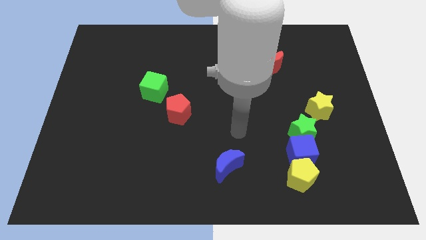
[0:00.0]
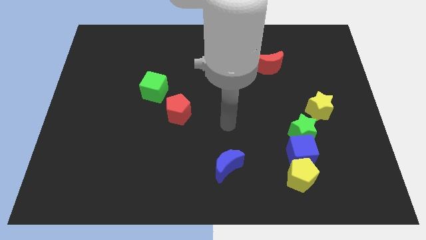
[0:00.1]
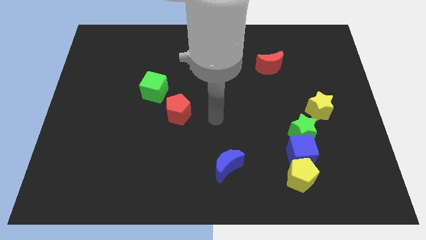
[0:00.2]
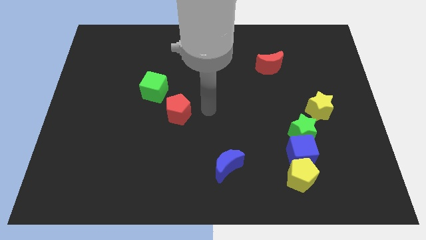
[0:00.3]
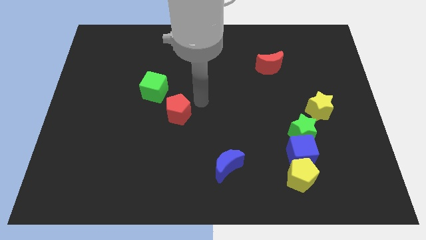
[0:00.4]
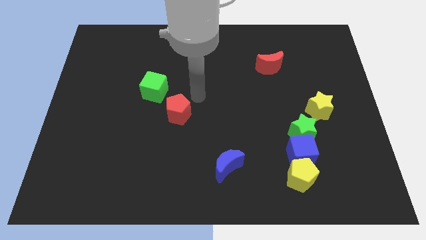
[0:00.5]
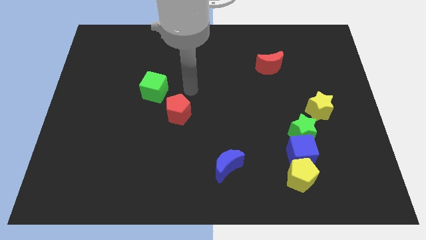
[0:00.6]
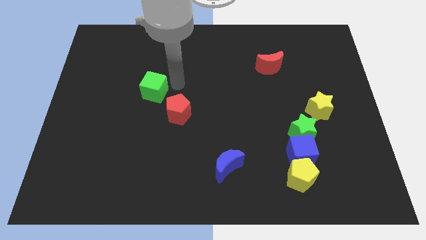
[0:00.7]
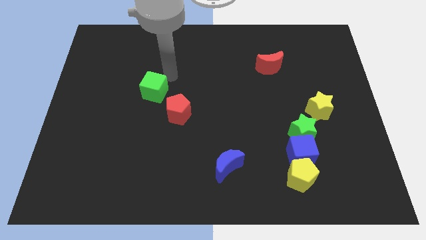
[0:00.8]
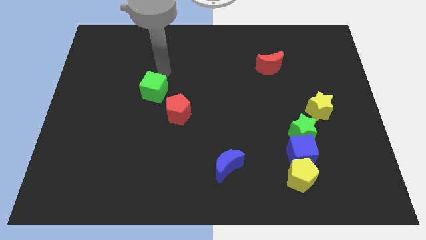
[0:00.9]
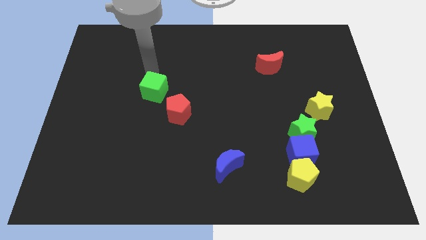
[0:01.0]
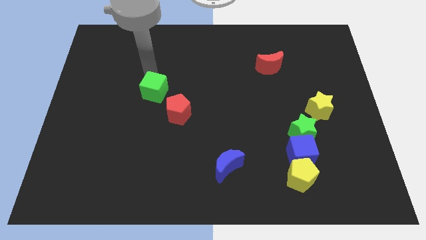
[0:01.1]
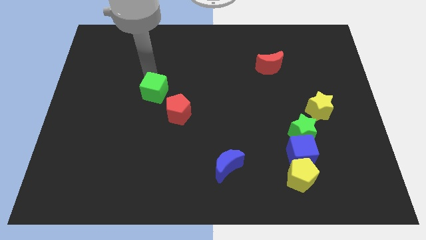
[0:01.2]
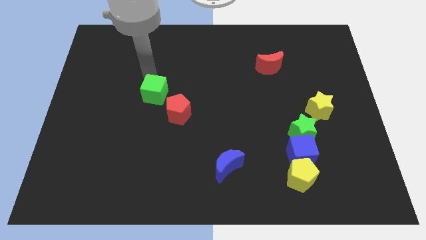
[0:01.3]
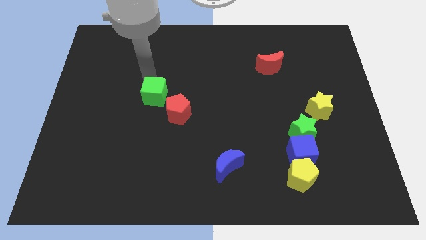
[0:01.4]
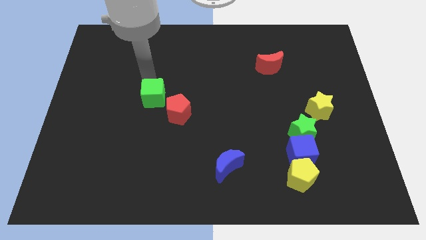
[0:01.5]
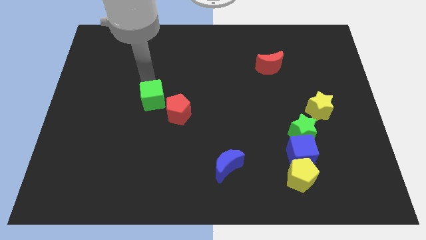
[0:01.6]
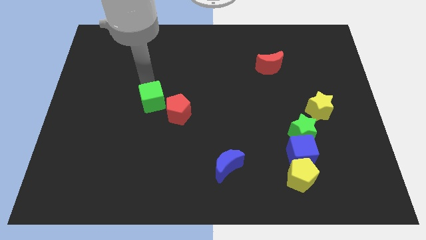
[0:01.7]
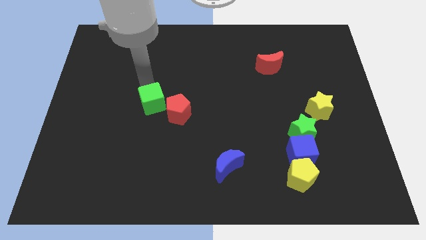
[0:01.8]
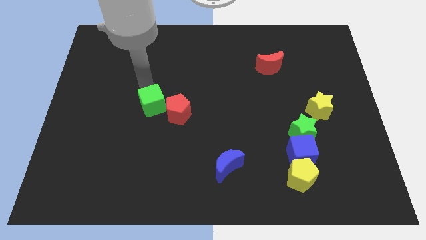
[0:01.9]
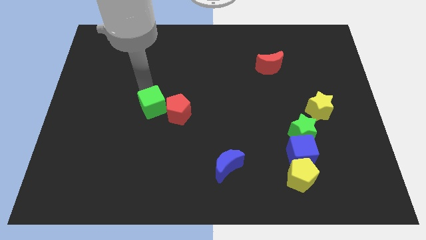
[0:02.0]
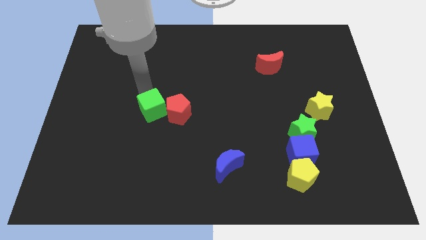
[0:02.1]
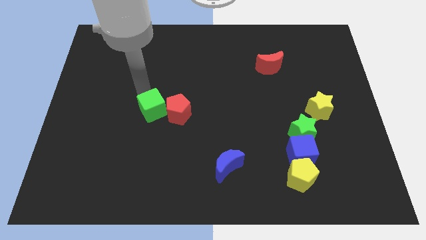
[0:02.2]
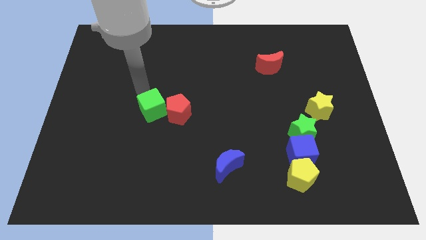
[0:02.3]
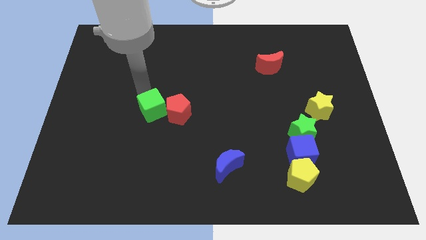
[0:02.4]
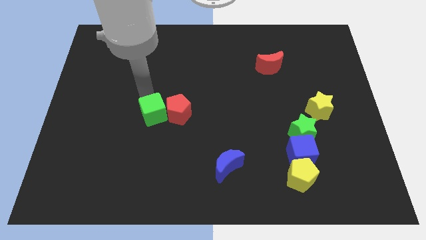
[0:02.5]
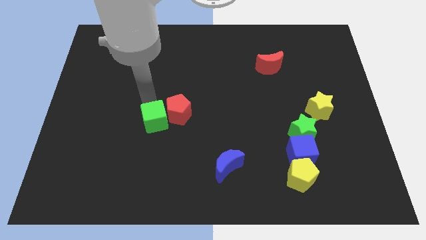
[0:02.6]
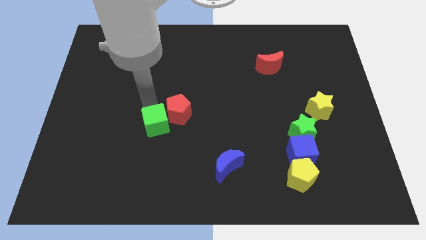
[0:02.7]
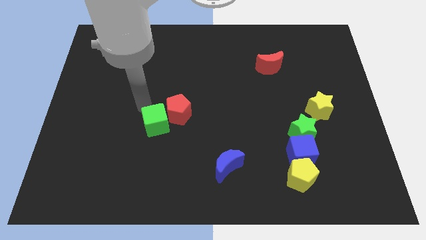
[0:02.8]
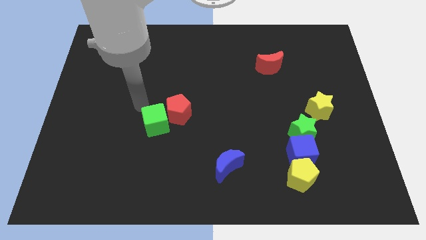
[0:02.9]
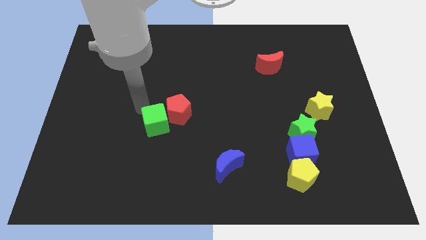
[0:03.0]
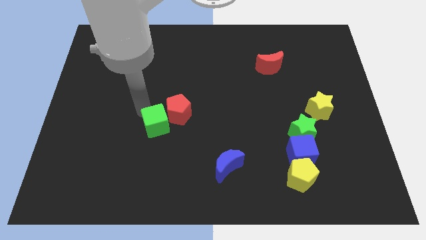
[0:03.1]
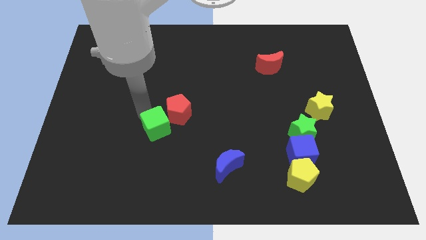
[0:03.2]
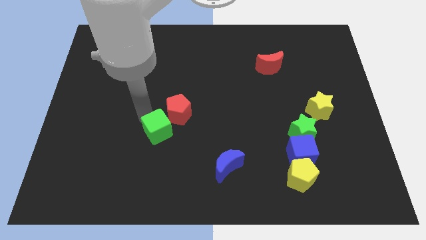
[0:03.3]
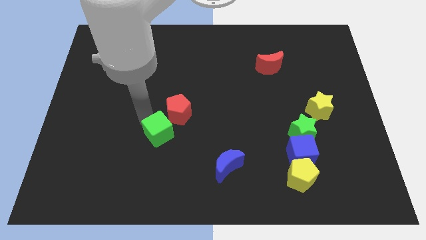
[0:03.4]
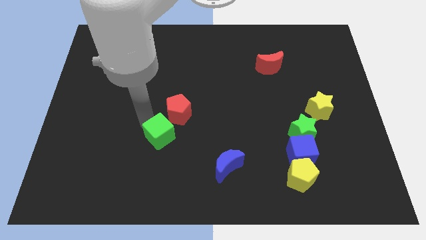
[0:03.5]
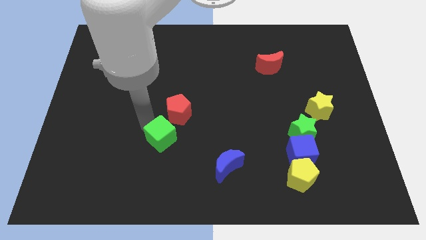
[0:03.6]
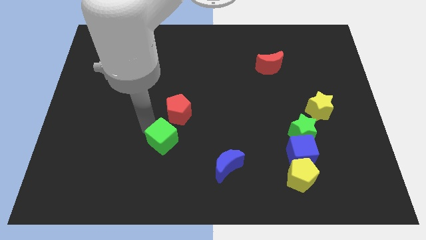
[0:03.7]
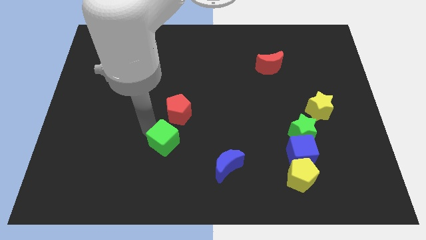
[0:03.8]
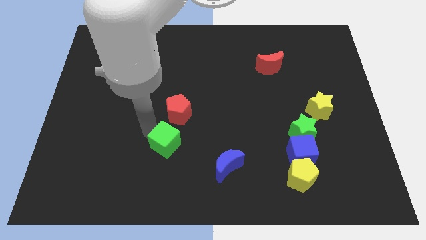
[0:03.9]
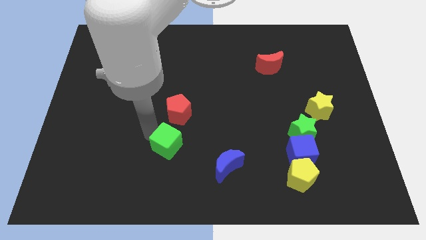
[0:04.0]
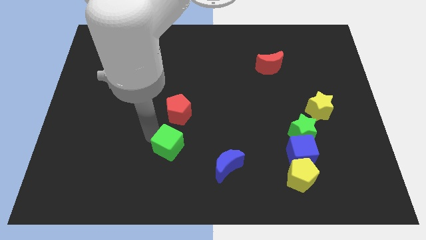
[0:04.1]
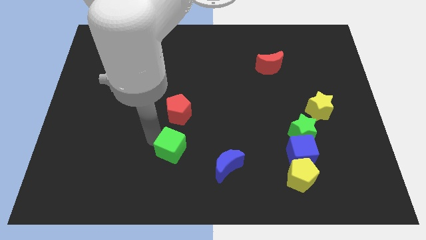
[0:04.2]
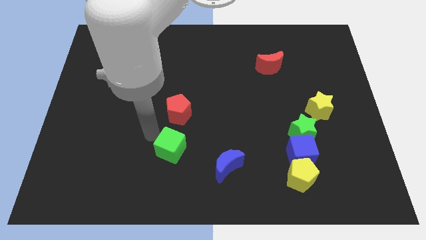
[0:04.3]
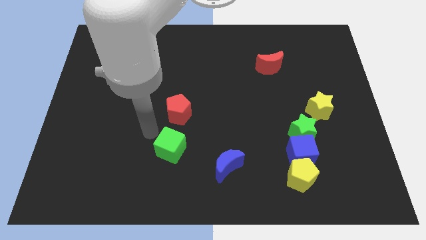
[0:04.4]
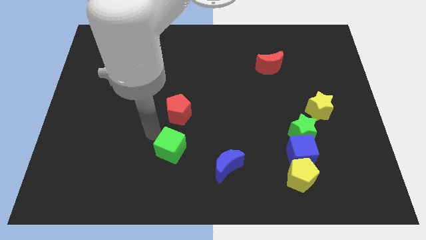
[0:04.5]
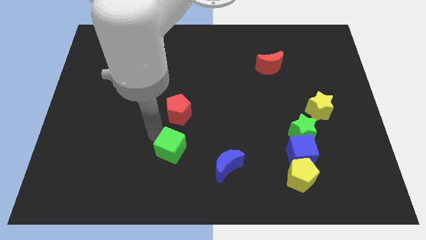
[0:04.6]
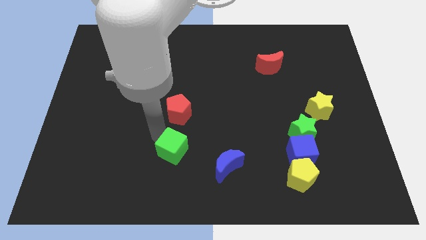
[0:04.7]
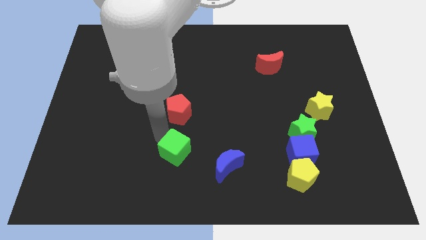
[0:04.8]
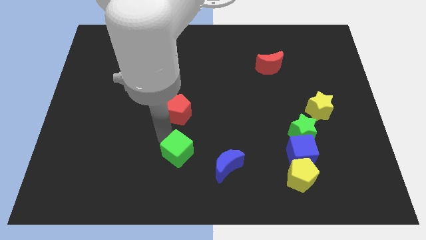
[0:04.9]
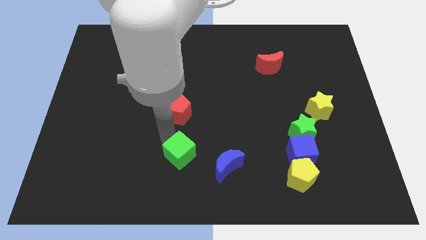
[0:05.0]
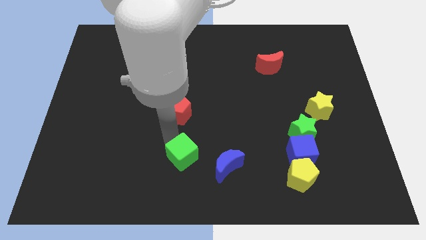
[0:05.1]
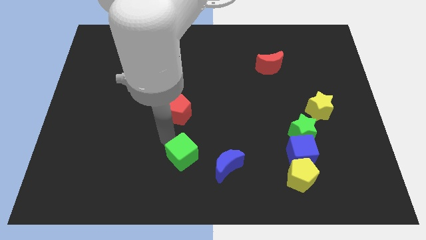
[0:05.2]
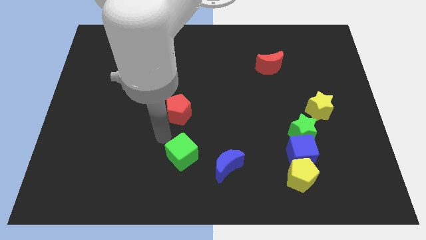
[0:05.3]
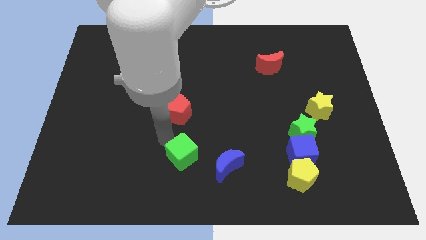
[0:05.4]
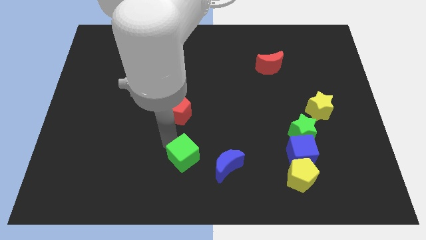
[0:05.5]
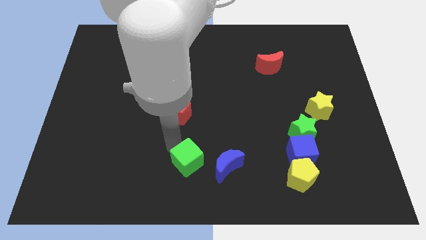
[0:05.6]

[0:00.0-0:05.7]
push the green cube to the bottom

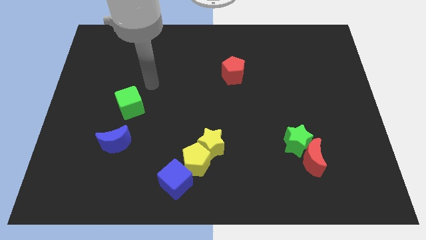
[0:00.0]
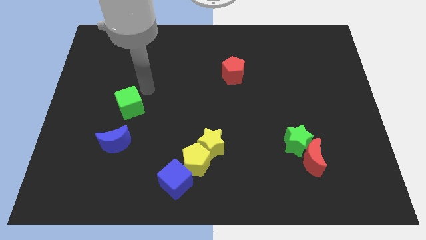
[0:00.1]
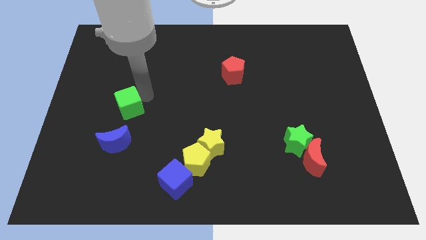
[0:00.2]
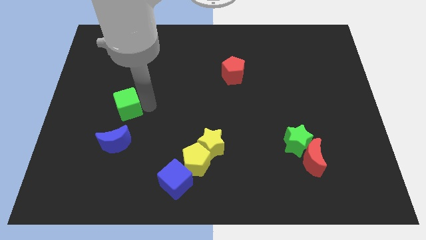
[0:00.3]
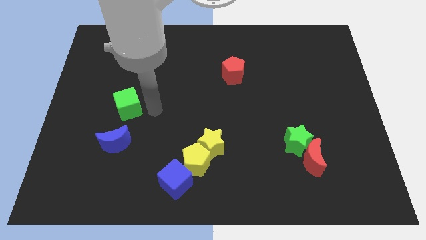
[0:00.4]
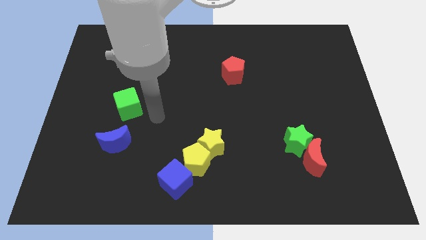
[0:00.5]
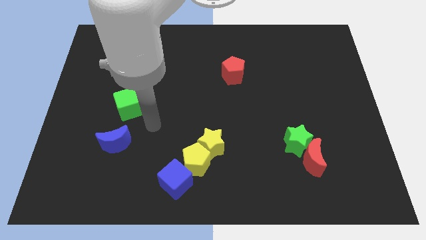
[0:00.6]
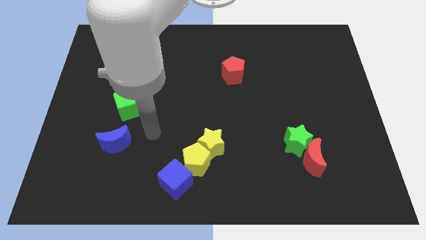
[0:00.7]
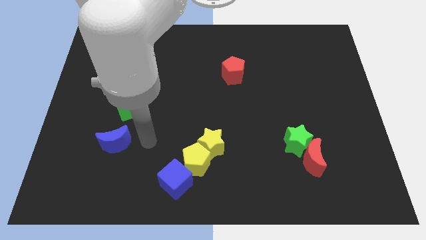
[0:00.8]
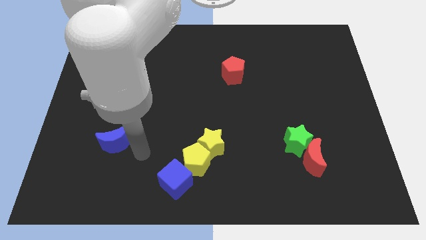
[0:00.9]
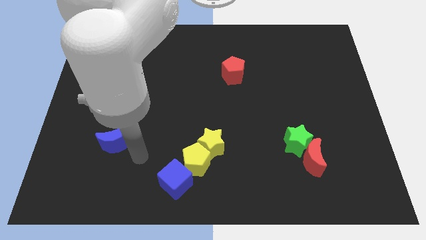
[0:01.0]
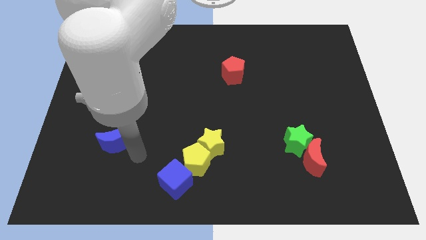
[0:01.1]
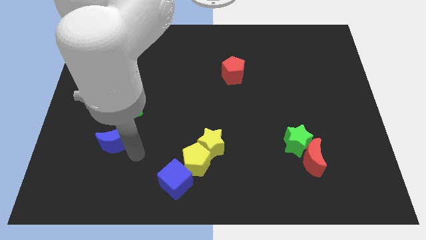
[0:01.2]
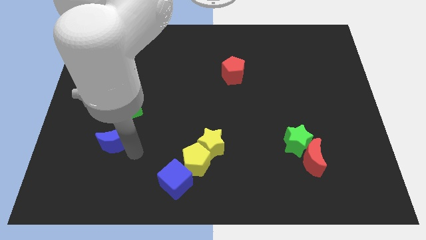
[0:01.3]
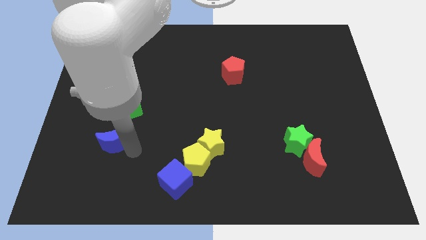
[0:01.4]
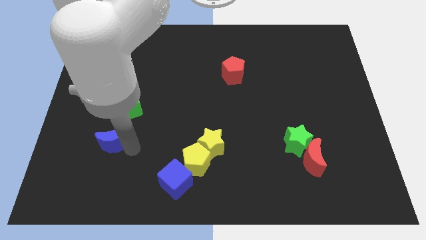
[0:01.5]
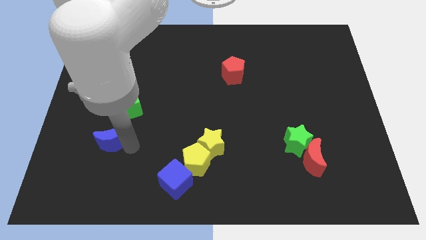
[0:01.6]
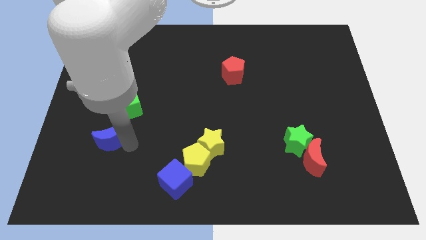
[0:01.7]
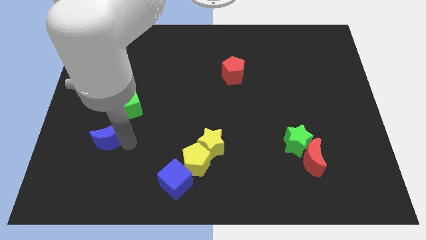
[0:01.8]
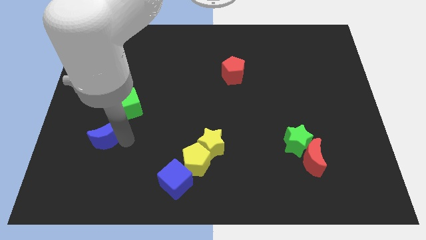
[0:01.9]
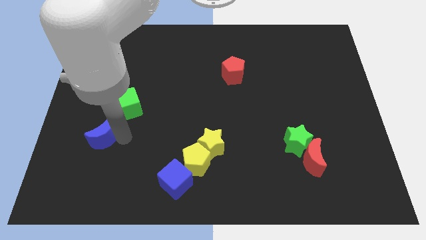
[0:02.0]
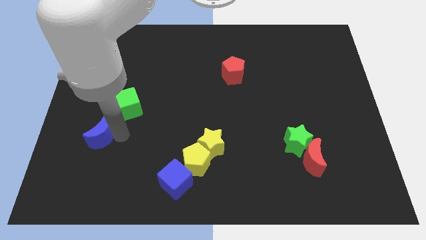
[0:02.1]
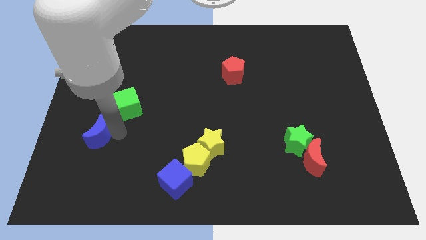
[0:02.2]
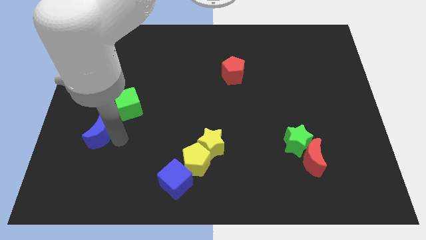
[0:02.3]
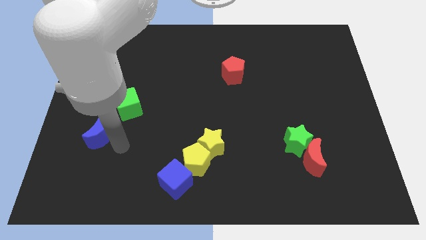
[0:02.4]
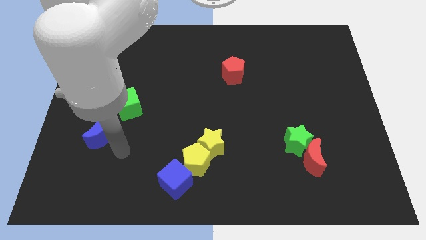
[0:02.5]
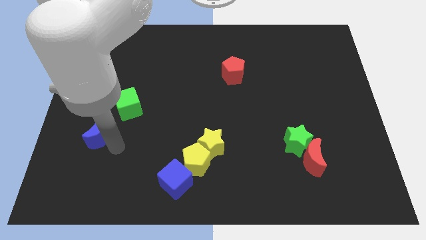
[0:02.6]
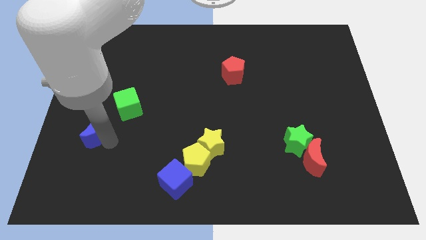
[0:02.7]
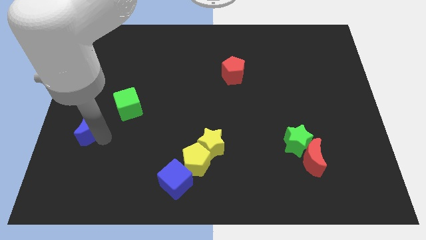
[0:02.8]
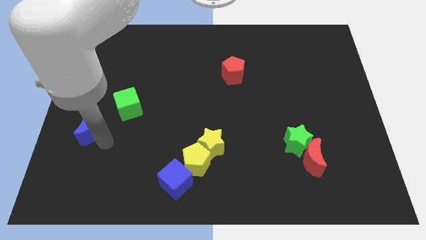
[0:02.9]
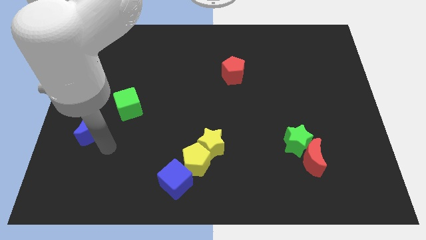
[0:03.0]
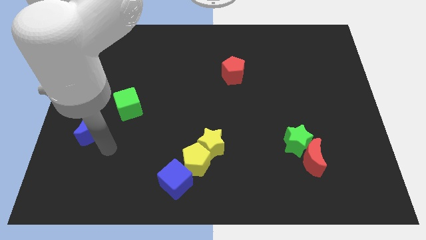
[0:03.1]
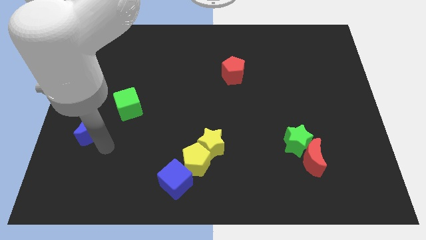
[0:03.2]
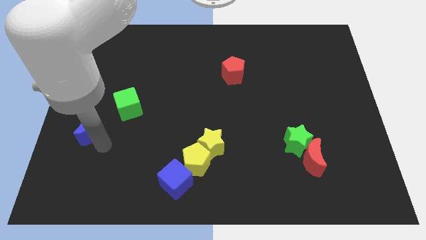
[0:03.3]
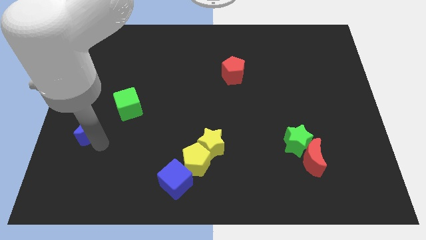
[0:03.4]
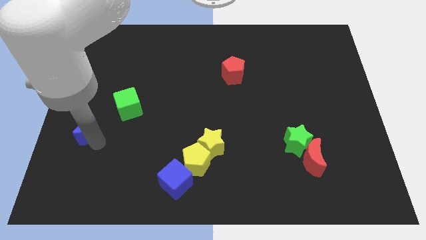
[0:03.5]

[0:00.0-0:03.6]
slide the blue moon to the left side
